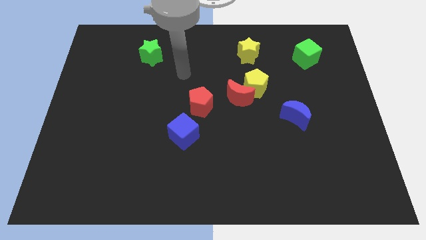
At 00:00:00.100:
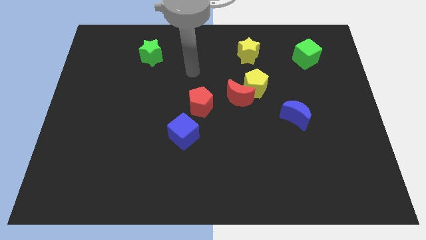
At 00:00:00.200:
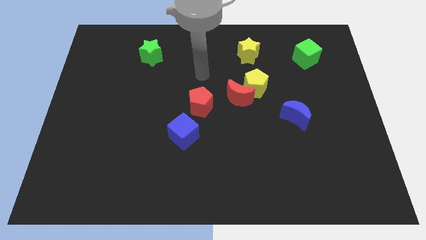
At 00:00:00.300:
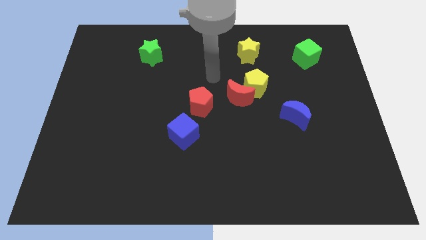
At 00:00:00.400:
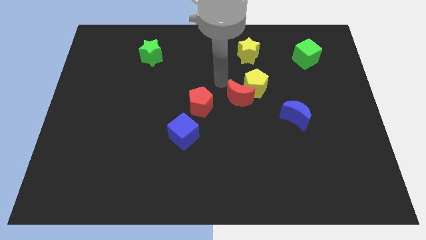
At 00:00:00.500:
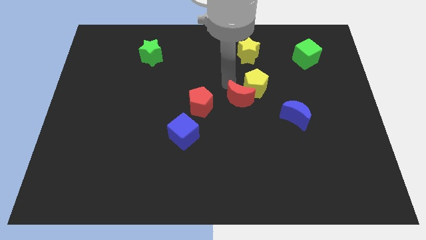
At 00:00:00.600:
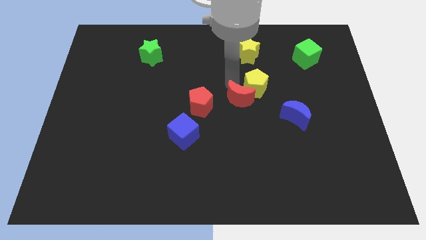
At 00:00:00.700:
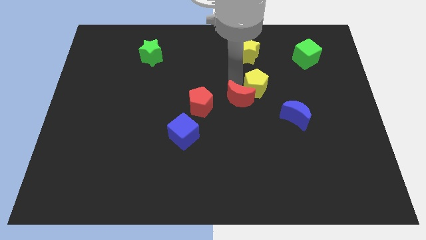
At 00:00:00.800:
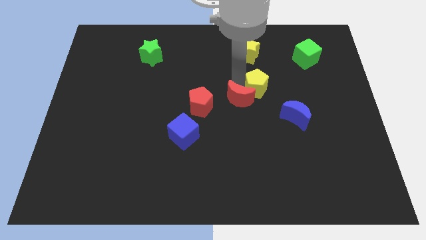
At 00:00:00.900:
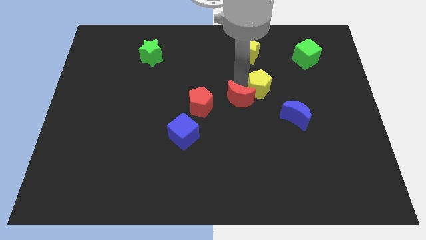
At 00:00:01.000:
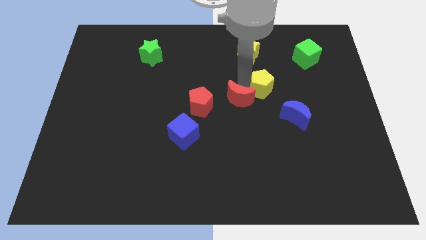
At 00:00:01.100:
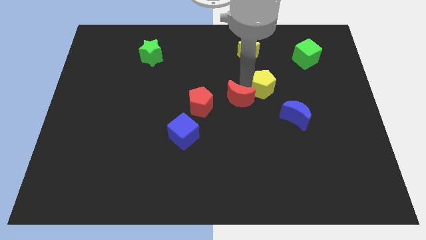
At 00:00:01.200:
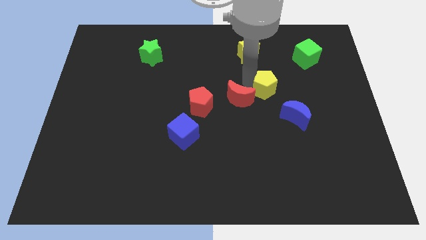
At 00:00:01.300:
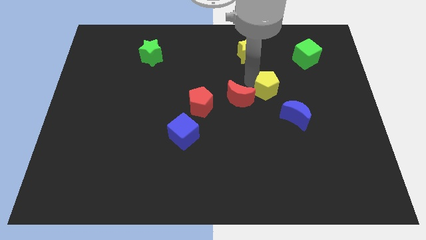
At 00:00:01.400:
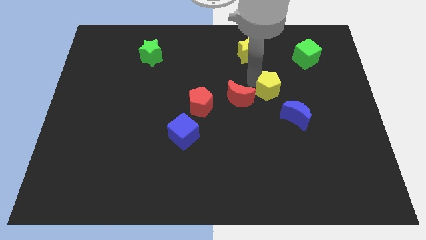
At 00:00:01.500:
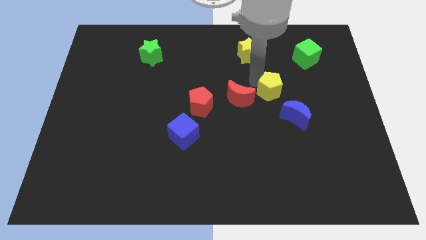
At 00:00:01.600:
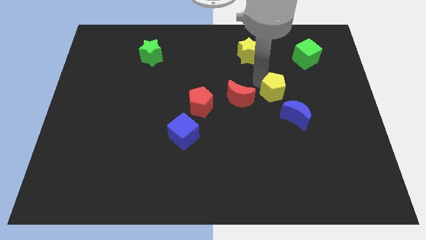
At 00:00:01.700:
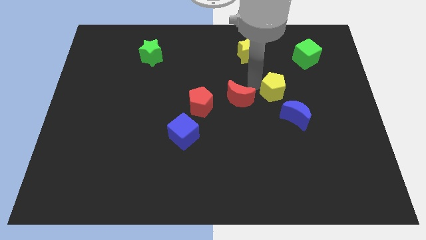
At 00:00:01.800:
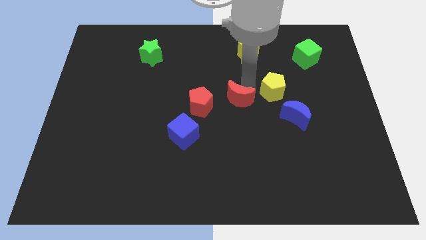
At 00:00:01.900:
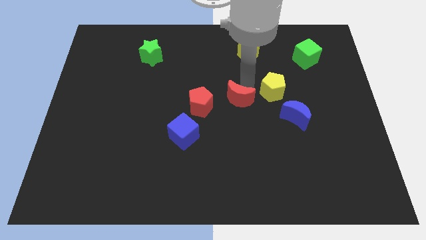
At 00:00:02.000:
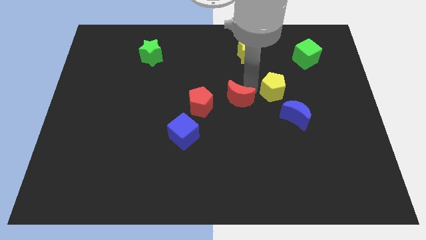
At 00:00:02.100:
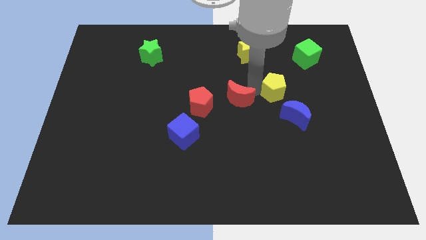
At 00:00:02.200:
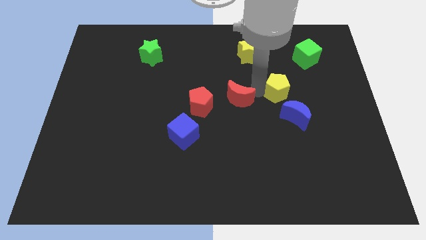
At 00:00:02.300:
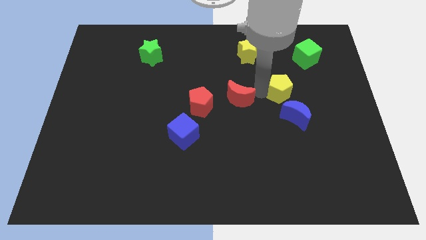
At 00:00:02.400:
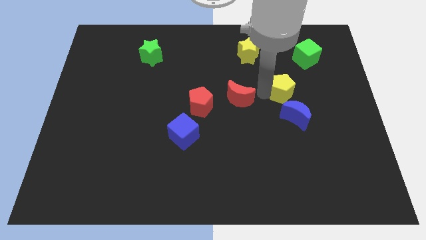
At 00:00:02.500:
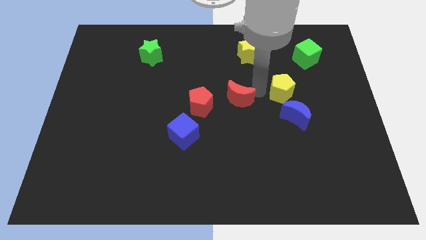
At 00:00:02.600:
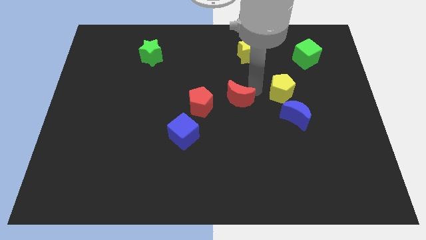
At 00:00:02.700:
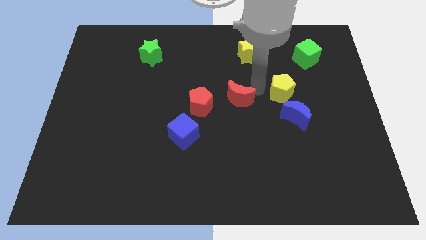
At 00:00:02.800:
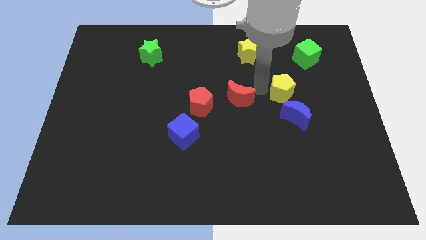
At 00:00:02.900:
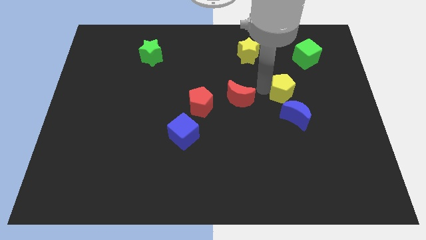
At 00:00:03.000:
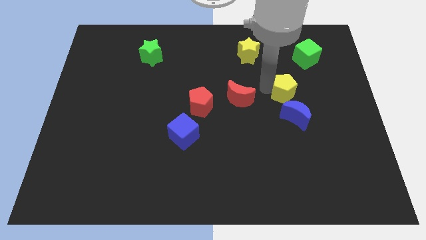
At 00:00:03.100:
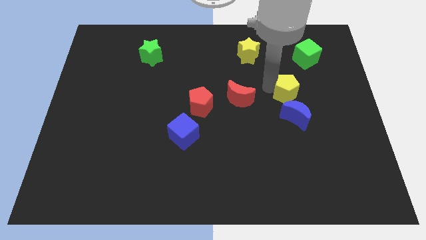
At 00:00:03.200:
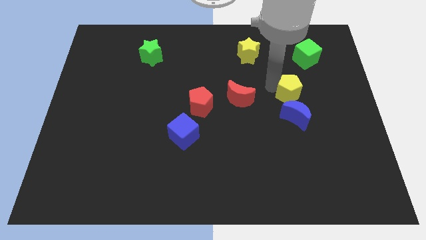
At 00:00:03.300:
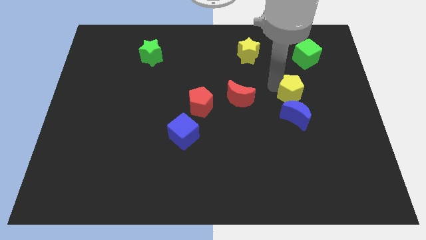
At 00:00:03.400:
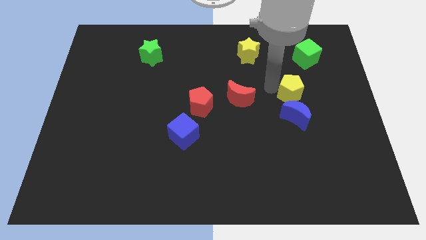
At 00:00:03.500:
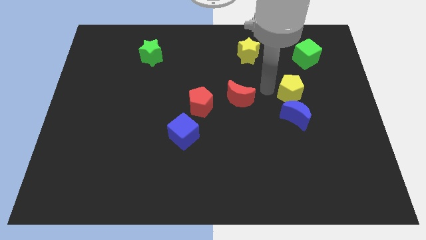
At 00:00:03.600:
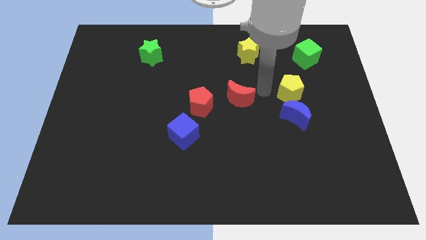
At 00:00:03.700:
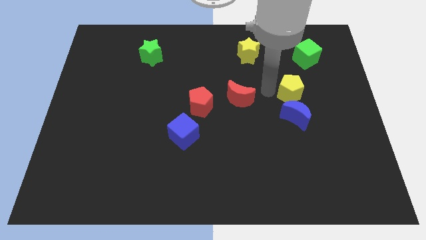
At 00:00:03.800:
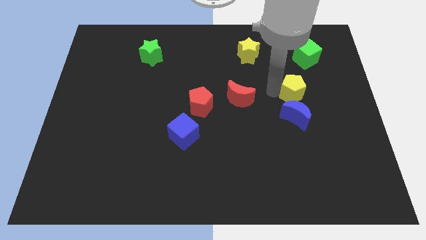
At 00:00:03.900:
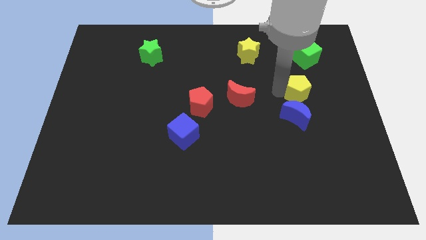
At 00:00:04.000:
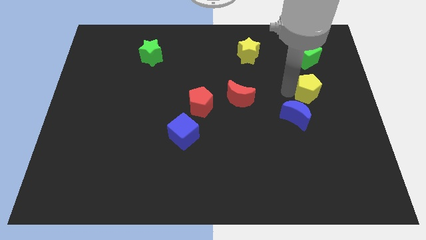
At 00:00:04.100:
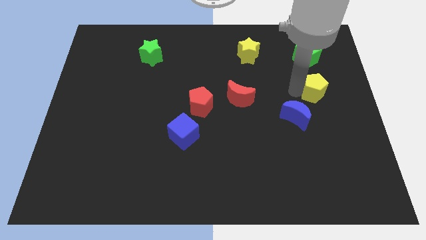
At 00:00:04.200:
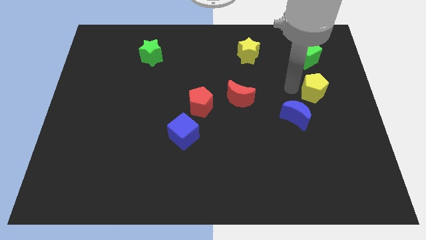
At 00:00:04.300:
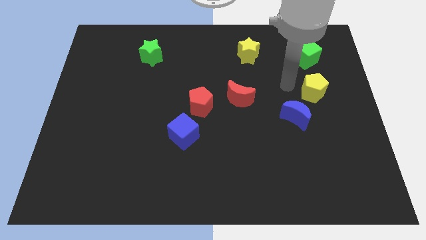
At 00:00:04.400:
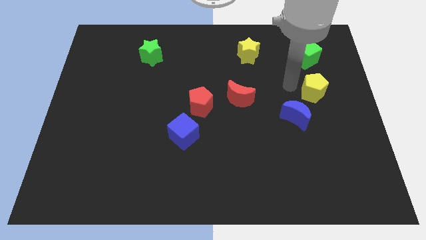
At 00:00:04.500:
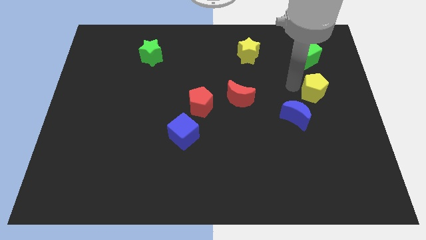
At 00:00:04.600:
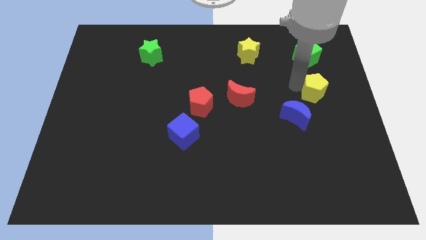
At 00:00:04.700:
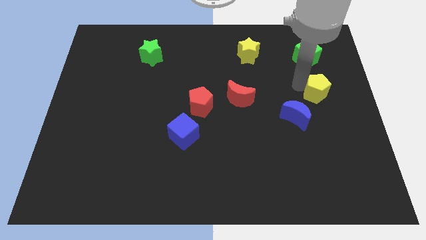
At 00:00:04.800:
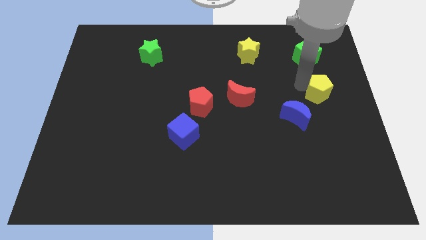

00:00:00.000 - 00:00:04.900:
put the yellow pentagon to the center right

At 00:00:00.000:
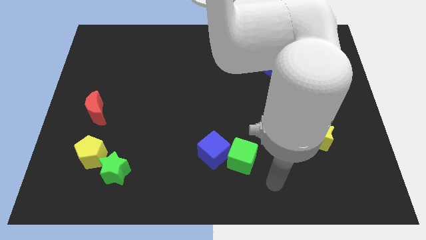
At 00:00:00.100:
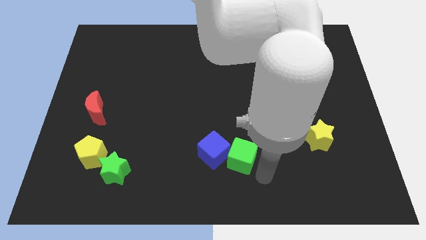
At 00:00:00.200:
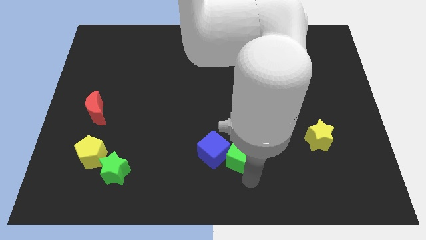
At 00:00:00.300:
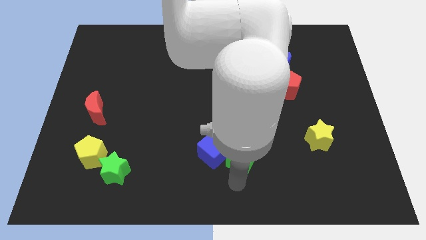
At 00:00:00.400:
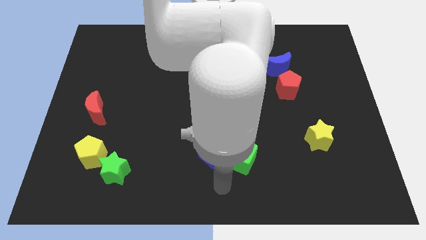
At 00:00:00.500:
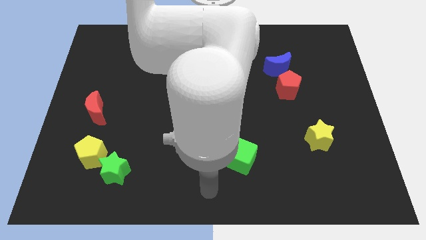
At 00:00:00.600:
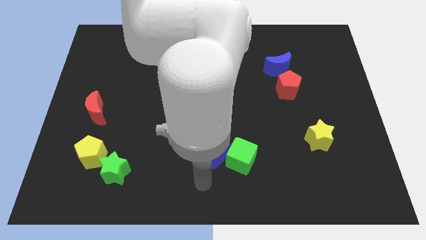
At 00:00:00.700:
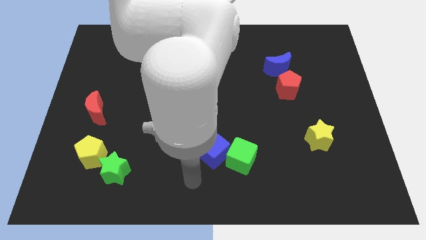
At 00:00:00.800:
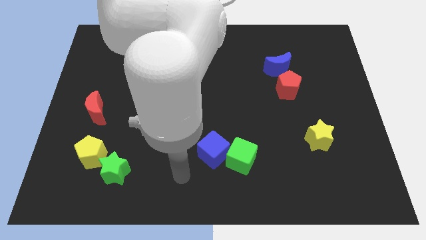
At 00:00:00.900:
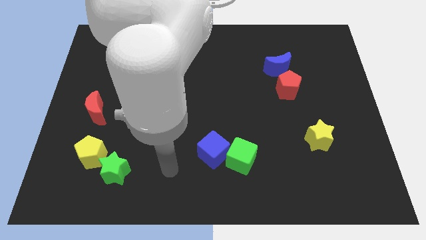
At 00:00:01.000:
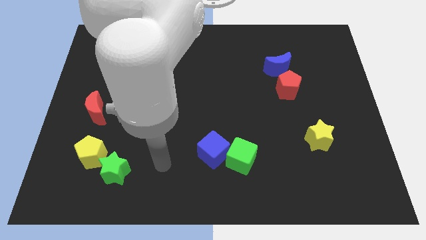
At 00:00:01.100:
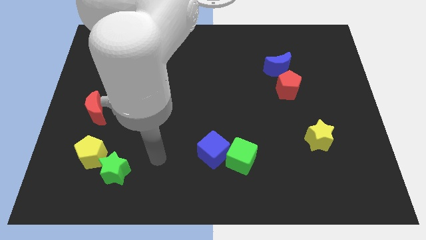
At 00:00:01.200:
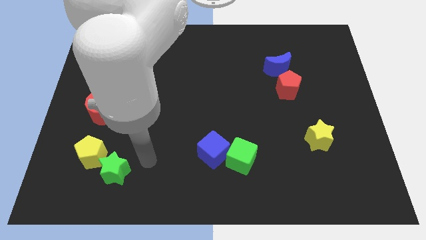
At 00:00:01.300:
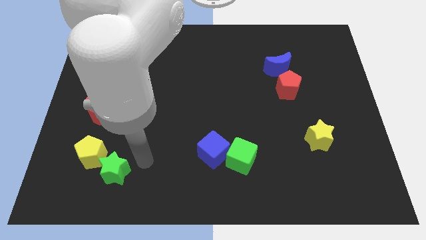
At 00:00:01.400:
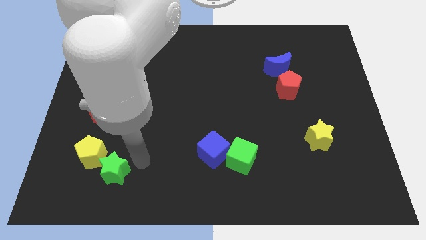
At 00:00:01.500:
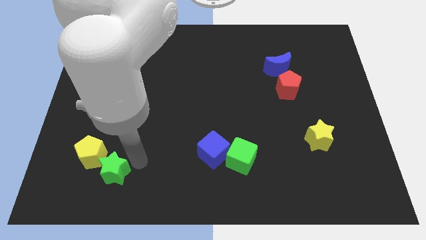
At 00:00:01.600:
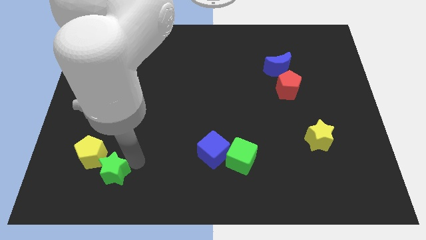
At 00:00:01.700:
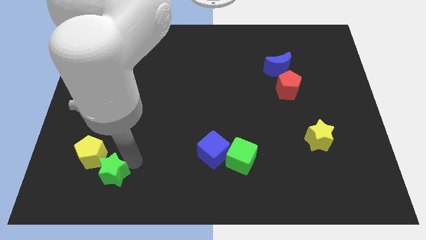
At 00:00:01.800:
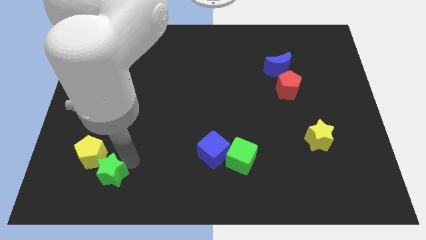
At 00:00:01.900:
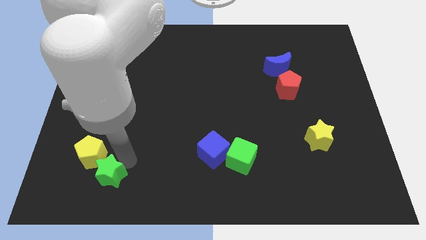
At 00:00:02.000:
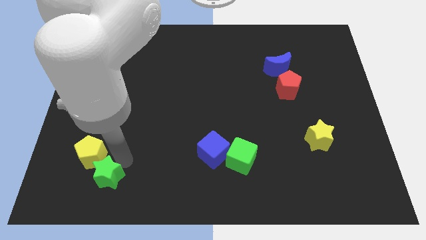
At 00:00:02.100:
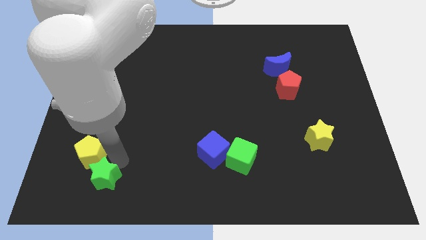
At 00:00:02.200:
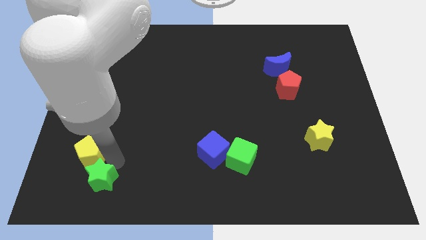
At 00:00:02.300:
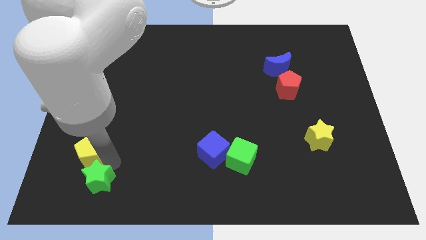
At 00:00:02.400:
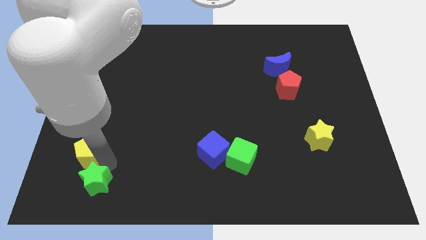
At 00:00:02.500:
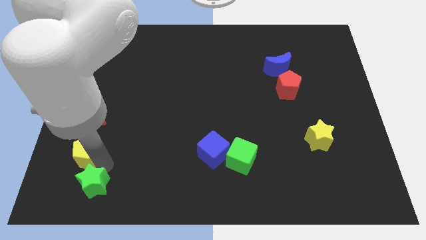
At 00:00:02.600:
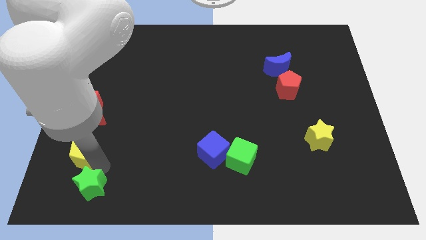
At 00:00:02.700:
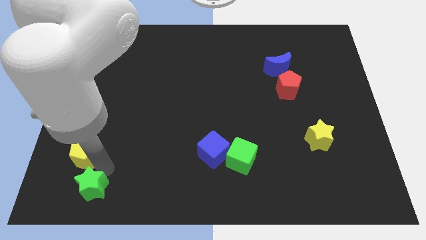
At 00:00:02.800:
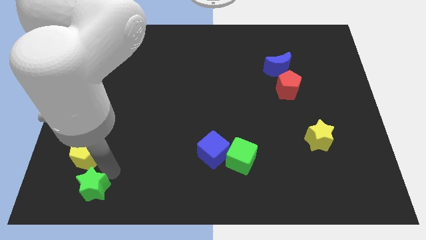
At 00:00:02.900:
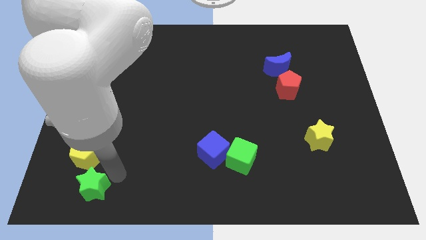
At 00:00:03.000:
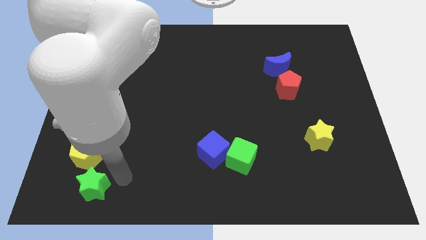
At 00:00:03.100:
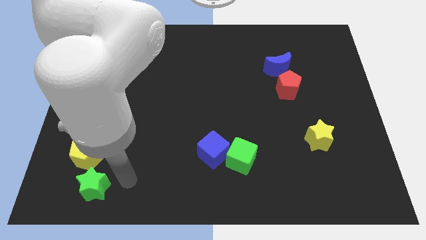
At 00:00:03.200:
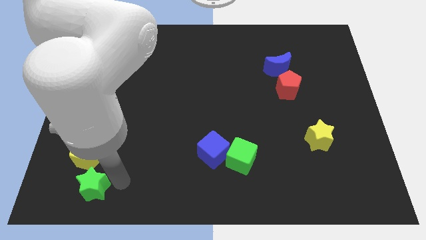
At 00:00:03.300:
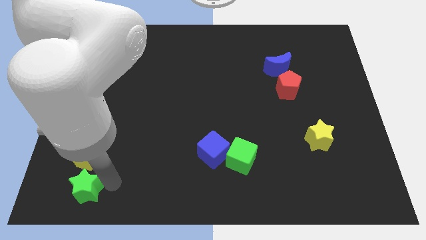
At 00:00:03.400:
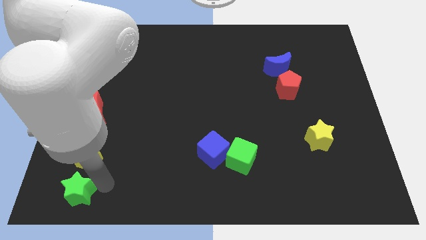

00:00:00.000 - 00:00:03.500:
push the green star to the bottom left corner

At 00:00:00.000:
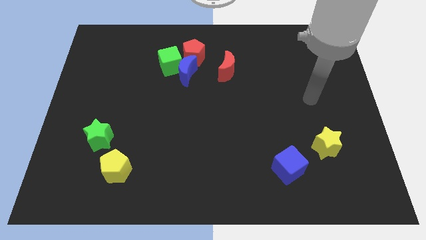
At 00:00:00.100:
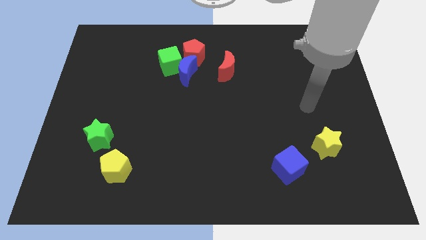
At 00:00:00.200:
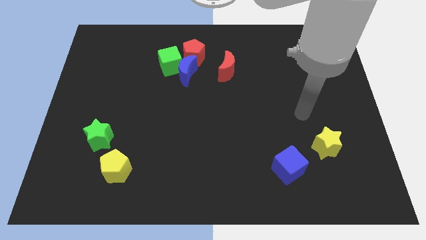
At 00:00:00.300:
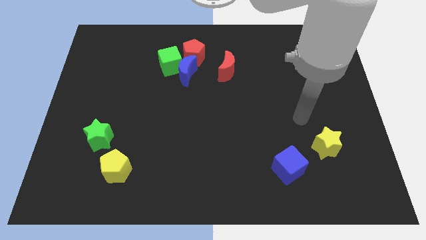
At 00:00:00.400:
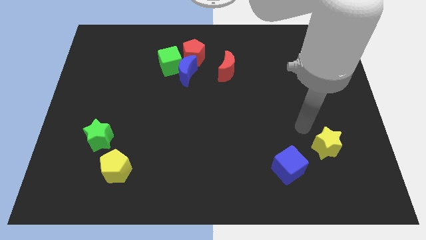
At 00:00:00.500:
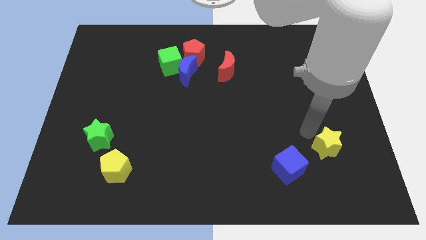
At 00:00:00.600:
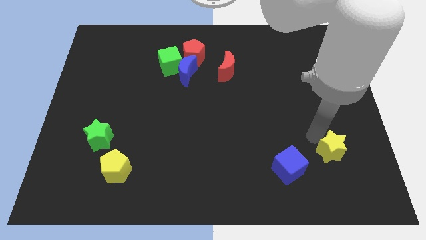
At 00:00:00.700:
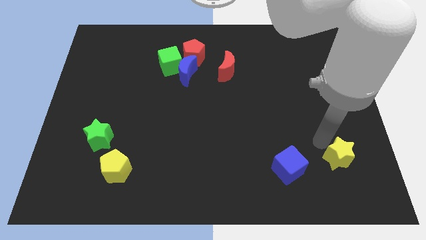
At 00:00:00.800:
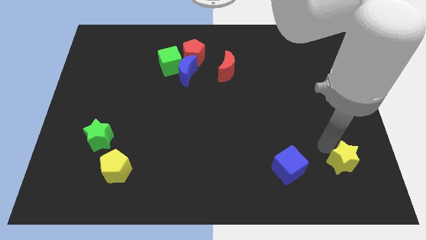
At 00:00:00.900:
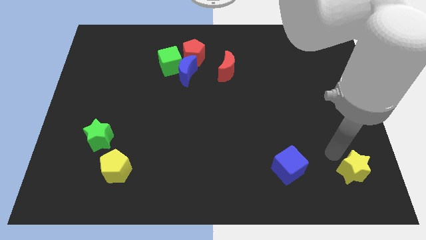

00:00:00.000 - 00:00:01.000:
push the yellow star to the bottom right corner
